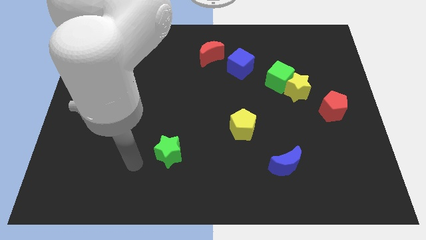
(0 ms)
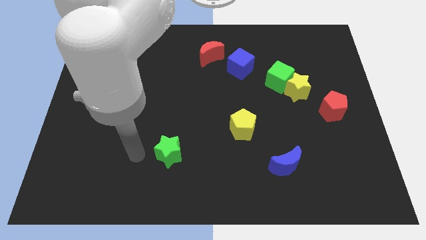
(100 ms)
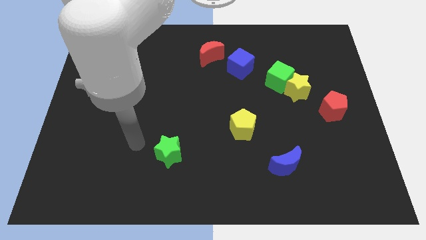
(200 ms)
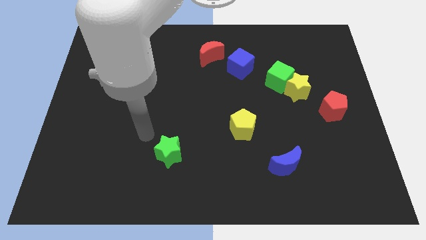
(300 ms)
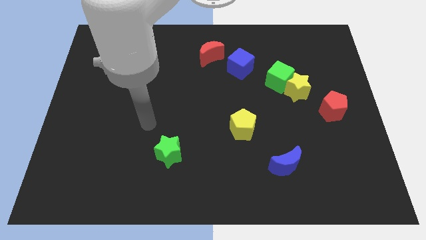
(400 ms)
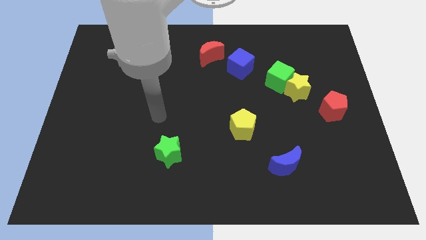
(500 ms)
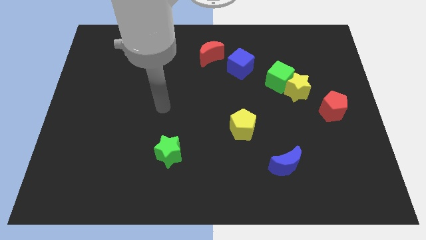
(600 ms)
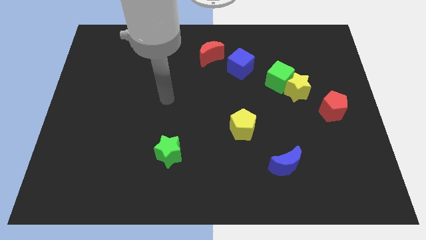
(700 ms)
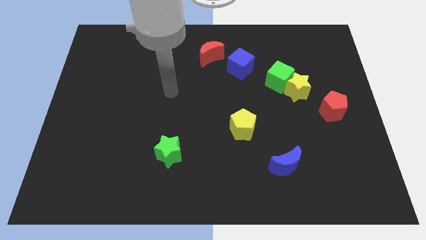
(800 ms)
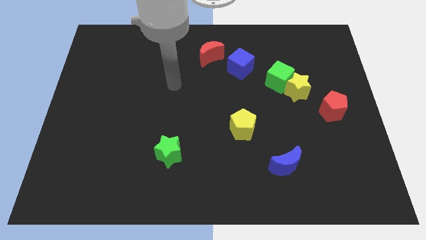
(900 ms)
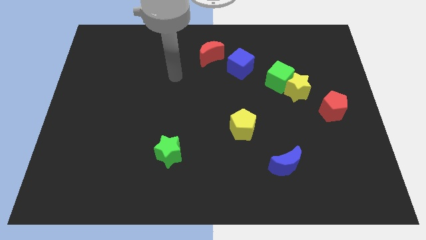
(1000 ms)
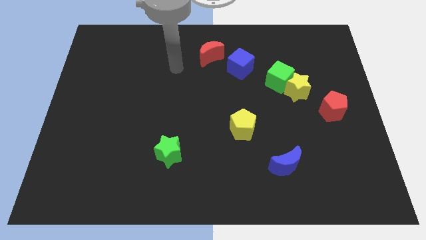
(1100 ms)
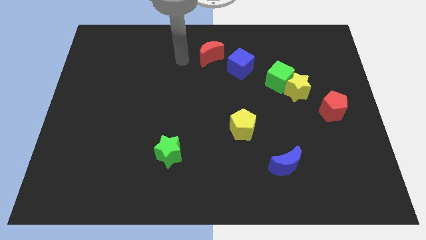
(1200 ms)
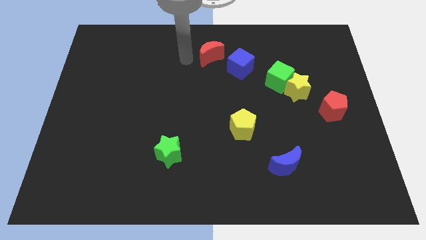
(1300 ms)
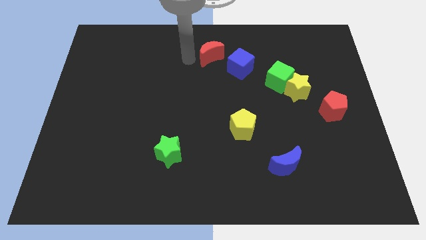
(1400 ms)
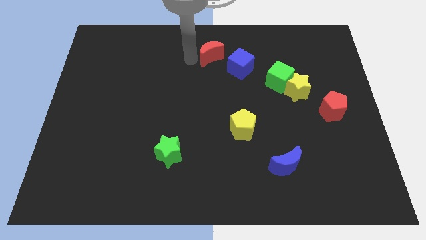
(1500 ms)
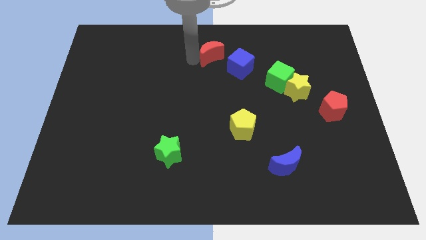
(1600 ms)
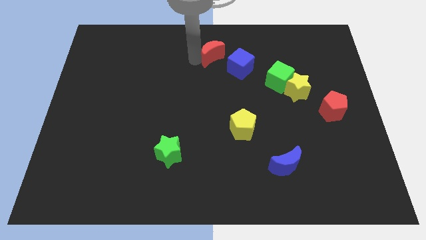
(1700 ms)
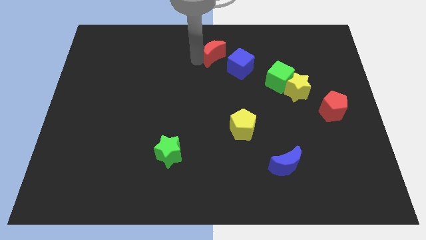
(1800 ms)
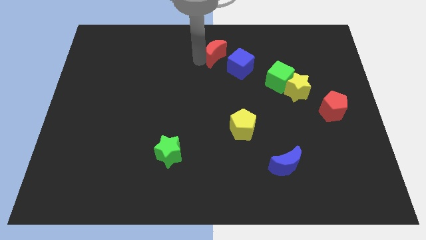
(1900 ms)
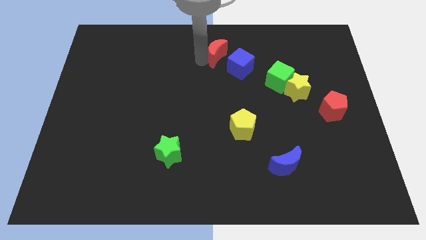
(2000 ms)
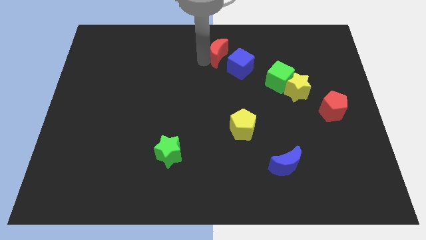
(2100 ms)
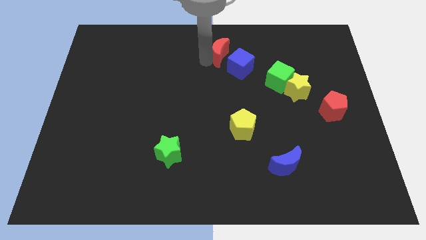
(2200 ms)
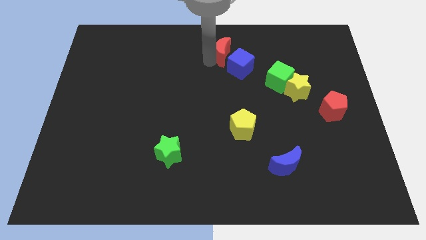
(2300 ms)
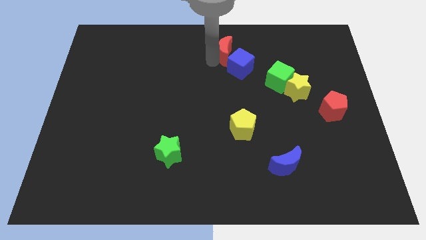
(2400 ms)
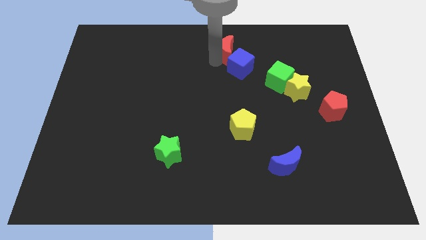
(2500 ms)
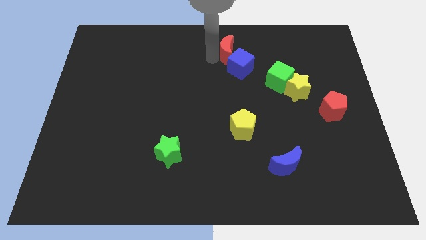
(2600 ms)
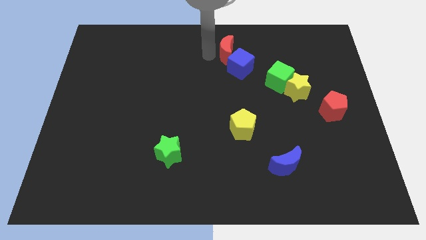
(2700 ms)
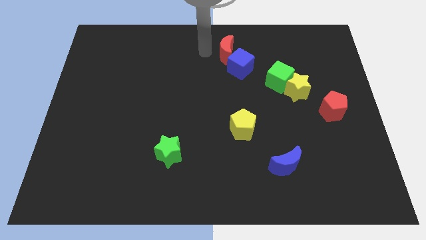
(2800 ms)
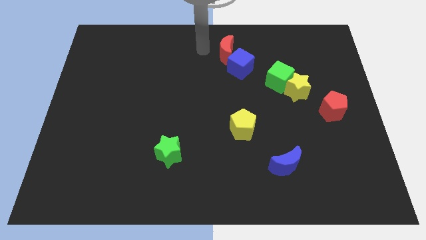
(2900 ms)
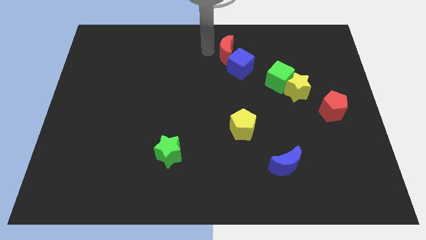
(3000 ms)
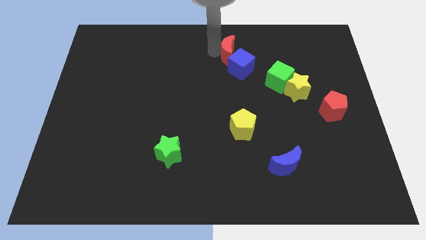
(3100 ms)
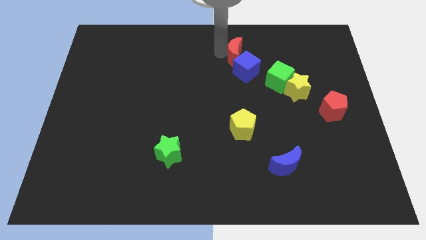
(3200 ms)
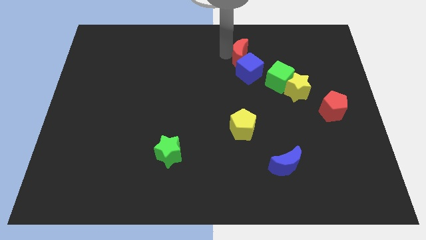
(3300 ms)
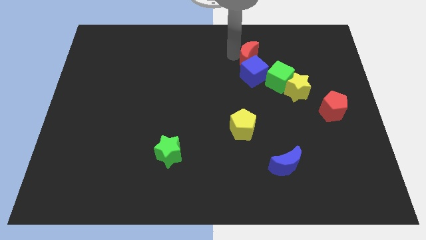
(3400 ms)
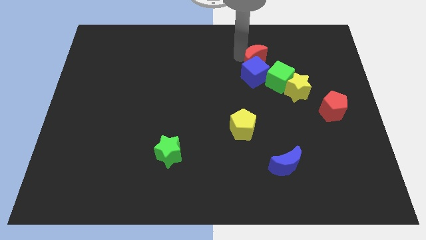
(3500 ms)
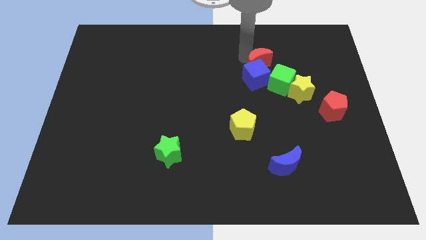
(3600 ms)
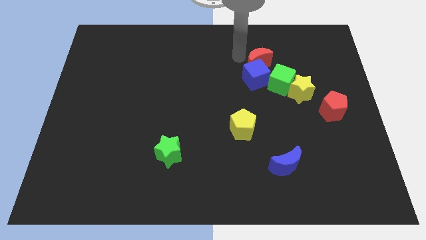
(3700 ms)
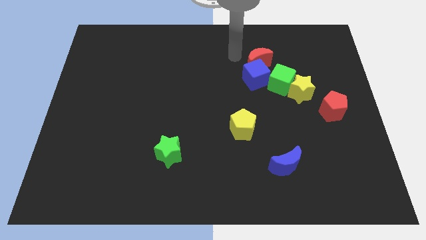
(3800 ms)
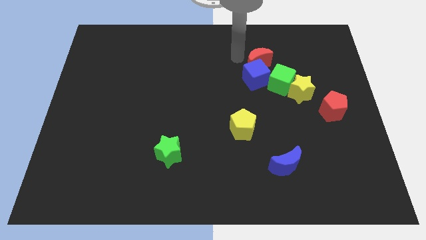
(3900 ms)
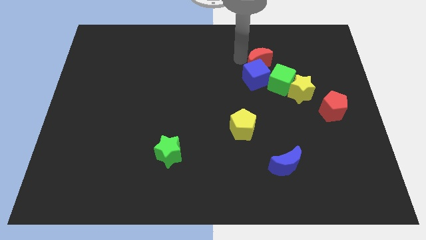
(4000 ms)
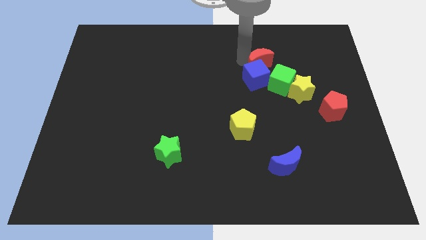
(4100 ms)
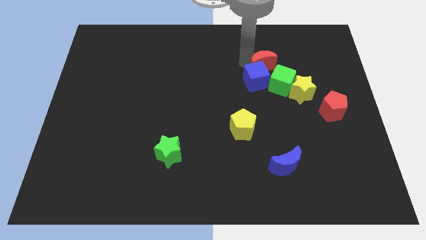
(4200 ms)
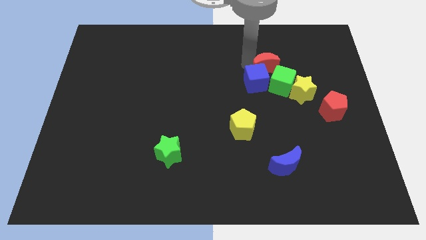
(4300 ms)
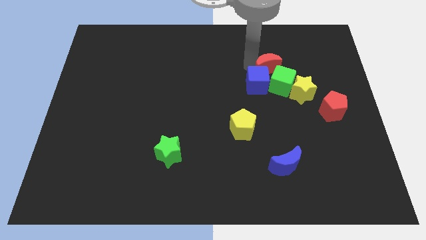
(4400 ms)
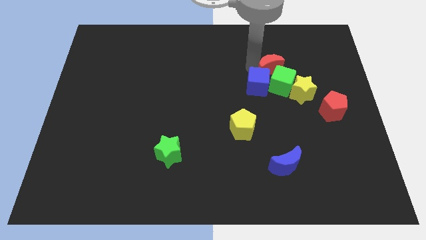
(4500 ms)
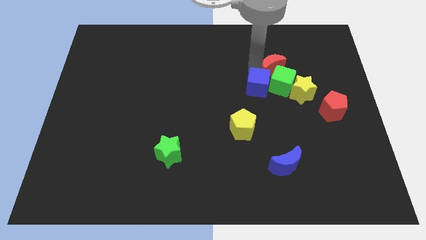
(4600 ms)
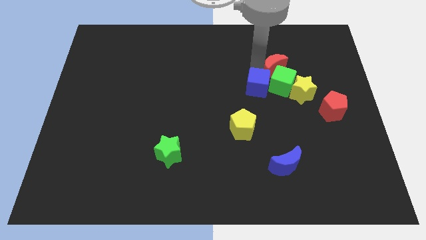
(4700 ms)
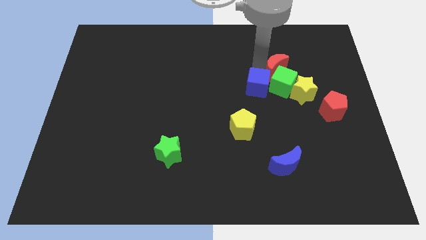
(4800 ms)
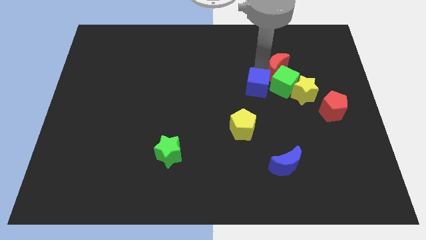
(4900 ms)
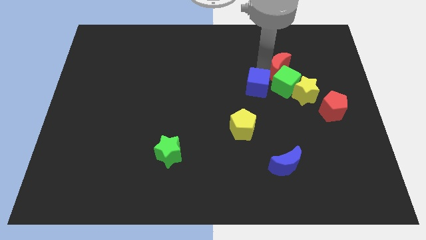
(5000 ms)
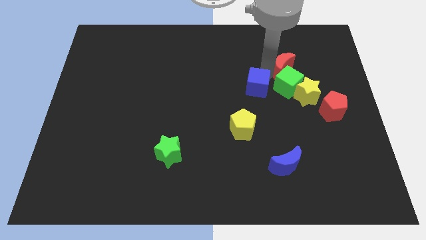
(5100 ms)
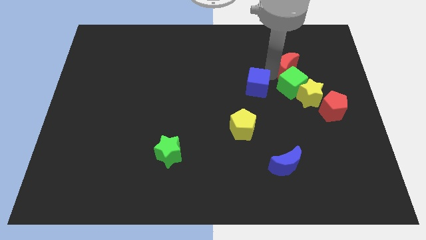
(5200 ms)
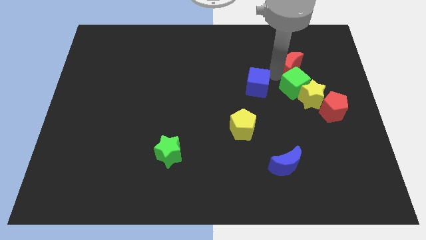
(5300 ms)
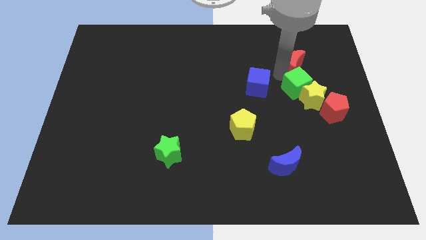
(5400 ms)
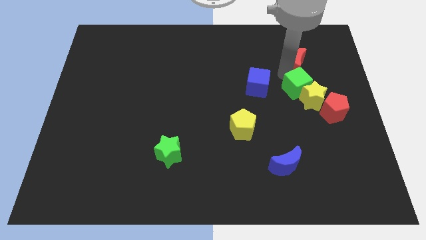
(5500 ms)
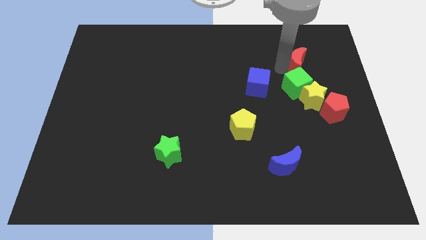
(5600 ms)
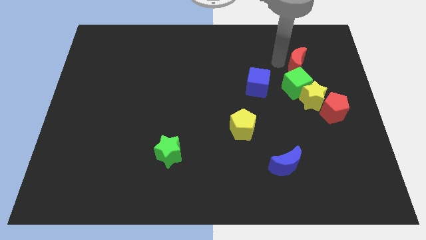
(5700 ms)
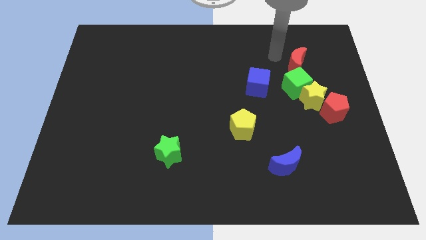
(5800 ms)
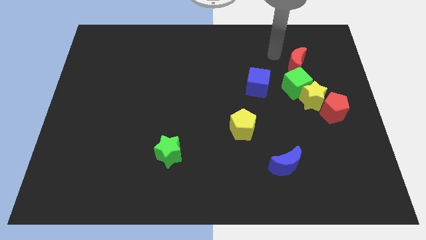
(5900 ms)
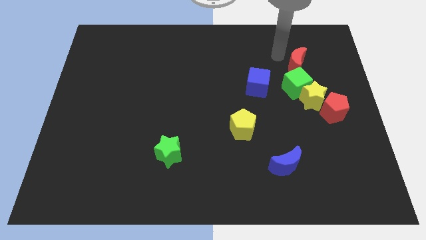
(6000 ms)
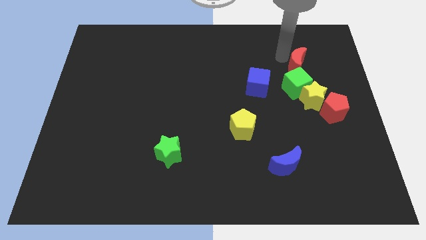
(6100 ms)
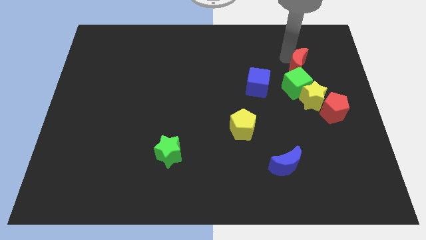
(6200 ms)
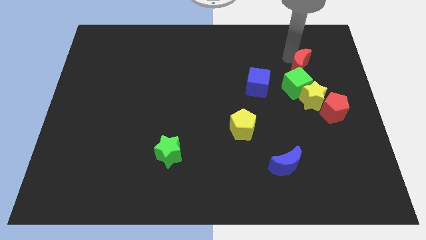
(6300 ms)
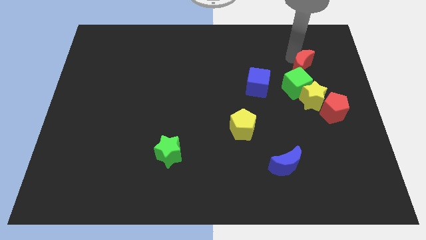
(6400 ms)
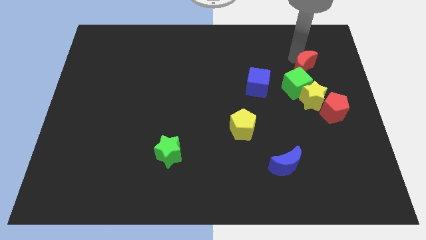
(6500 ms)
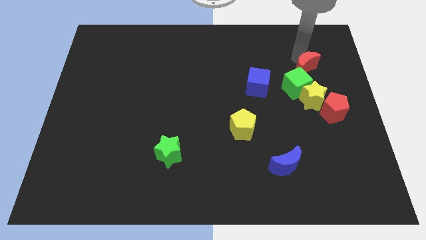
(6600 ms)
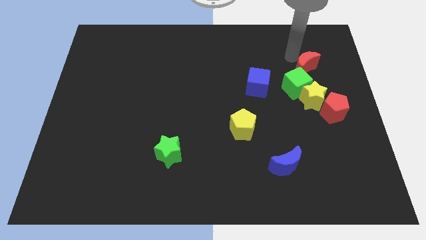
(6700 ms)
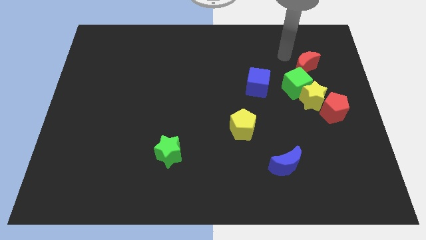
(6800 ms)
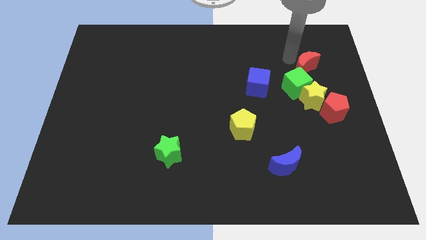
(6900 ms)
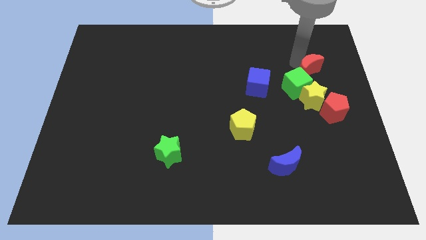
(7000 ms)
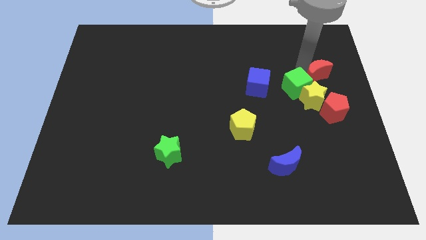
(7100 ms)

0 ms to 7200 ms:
put the red moon to the right of the green cube
